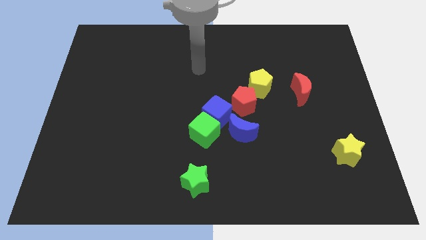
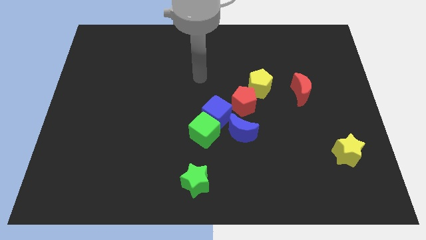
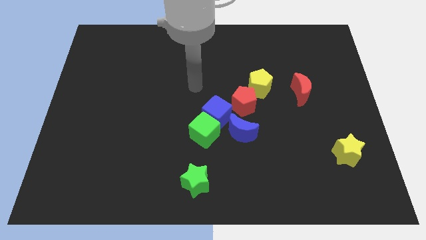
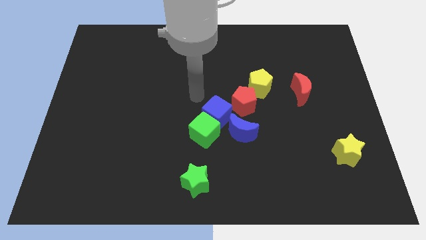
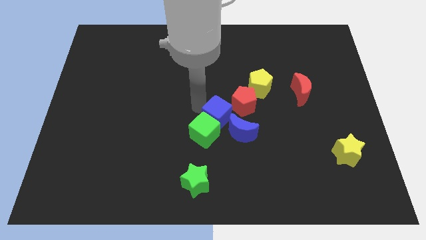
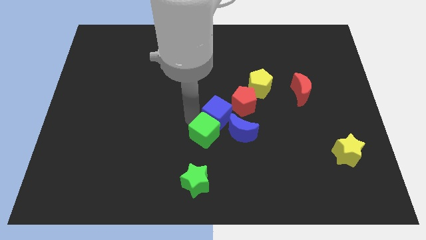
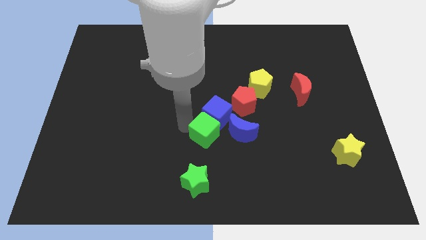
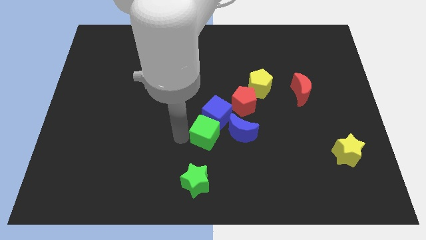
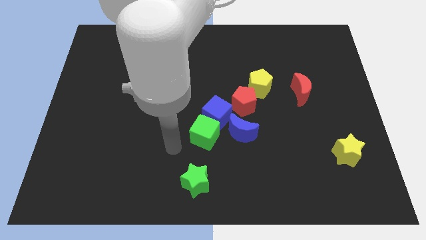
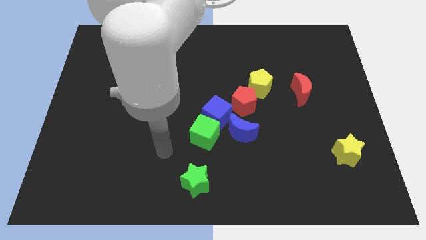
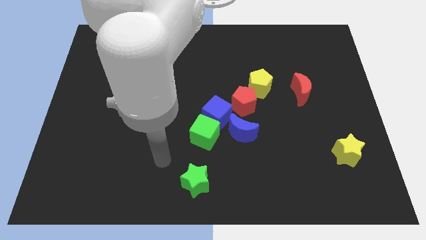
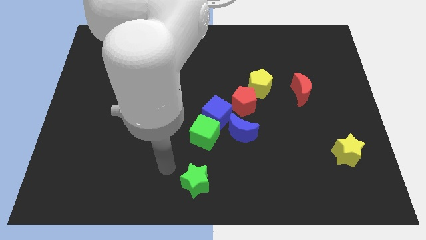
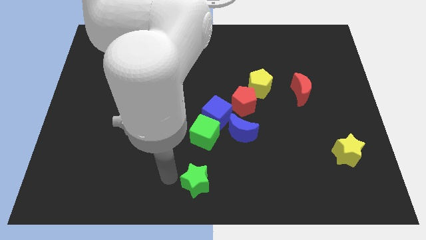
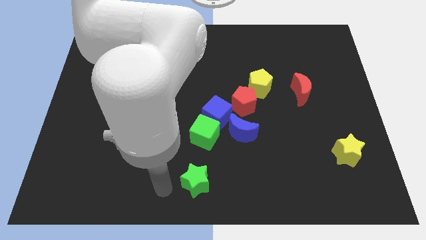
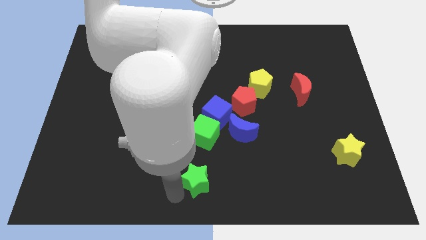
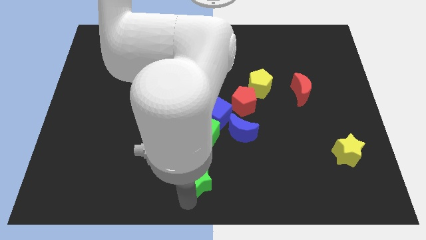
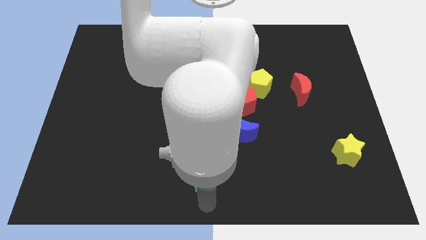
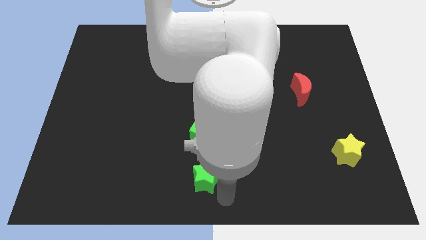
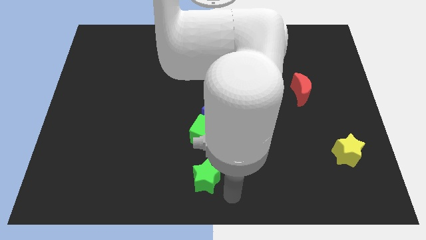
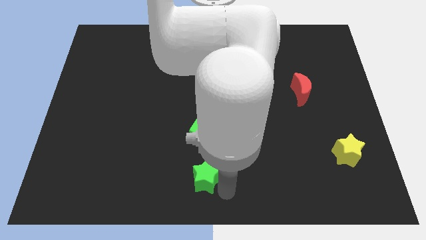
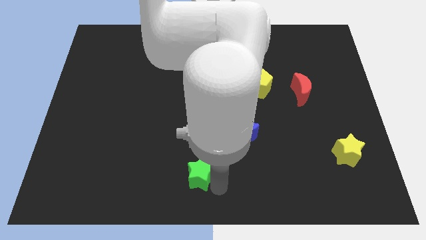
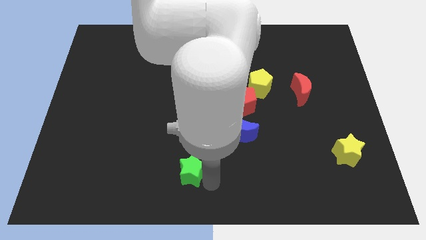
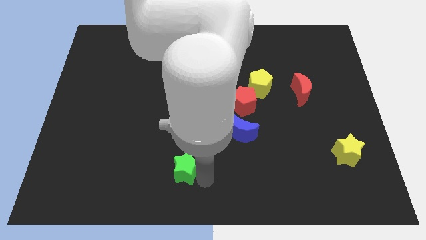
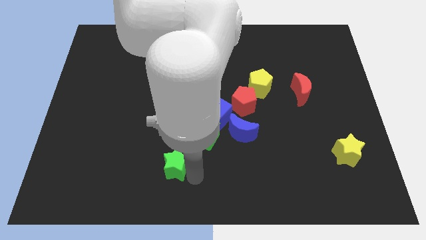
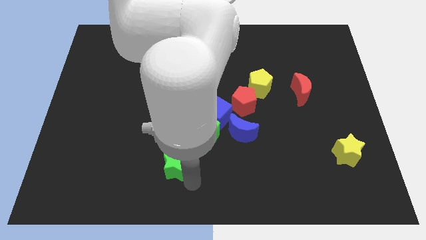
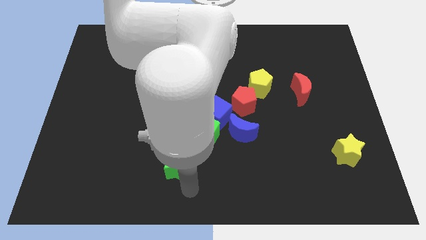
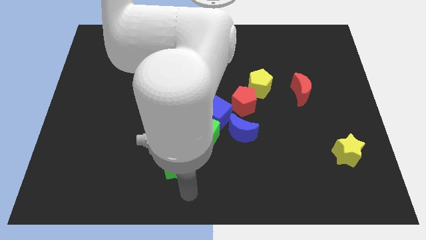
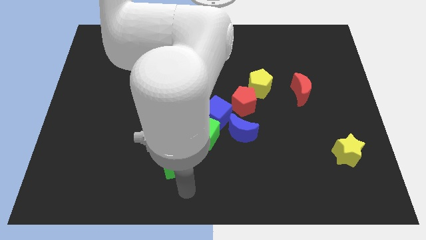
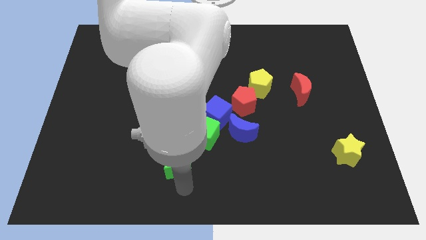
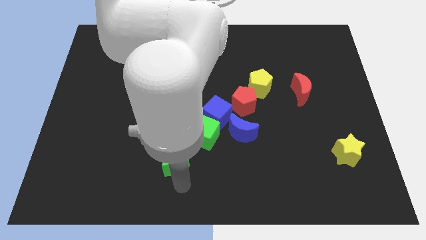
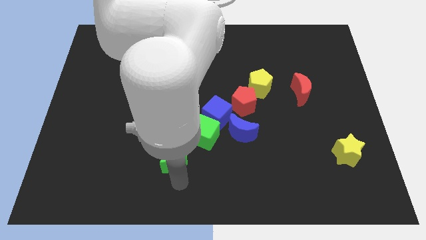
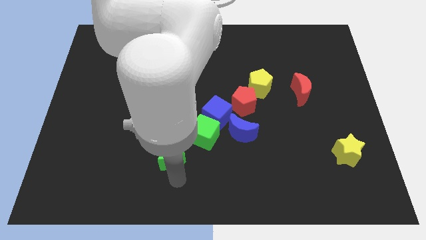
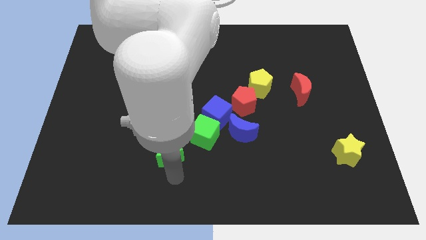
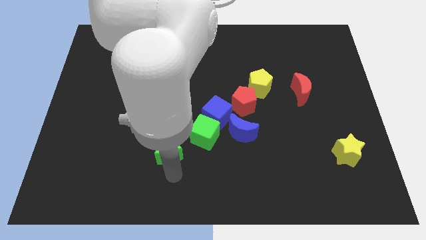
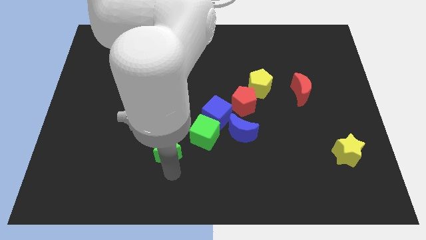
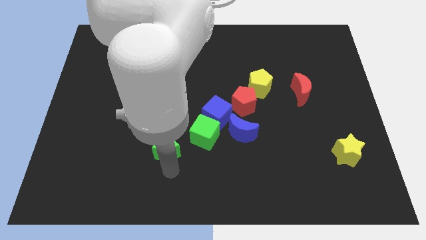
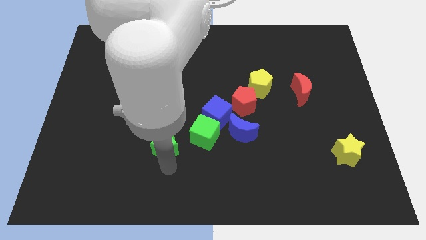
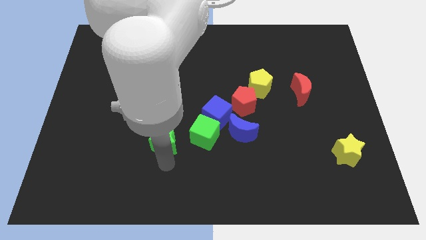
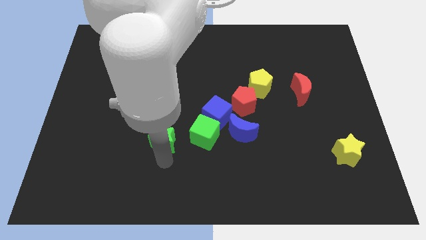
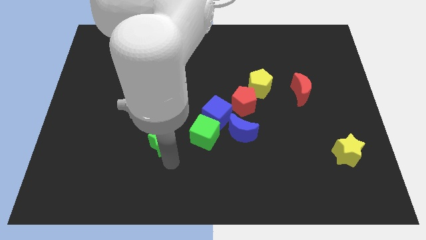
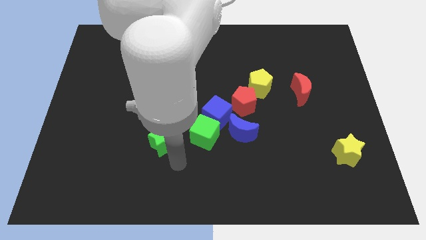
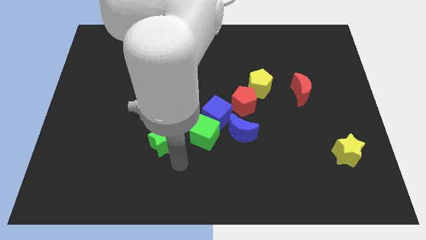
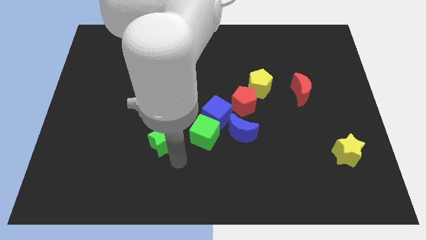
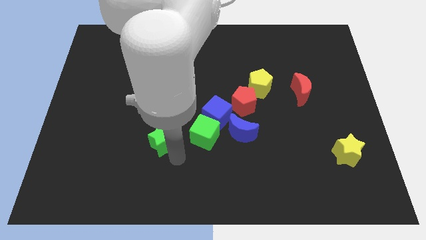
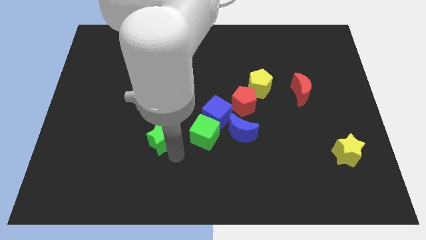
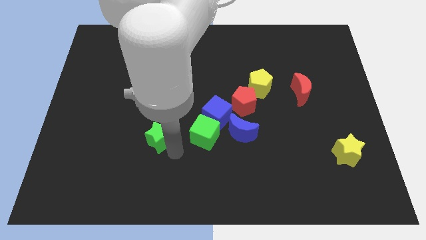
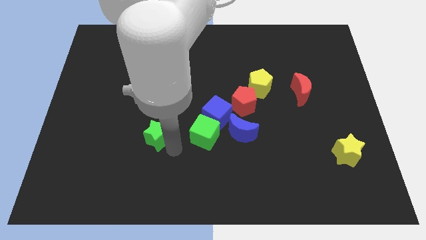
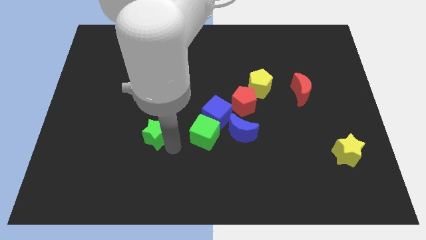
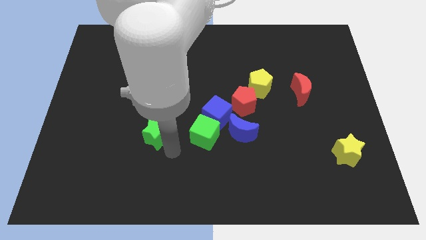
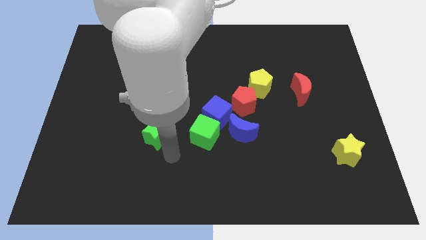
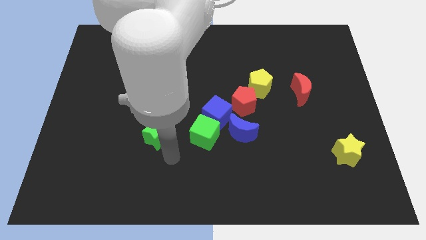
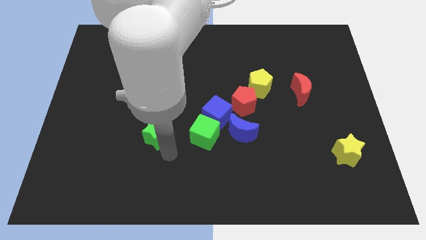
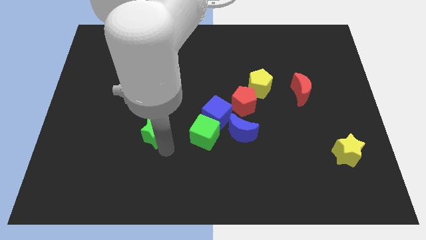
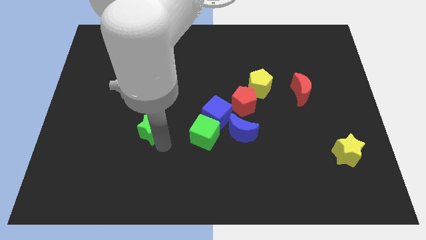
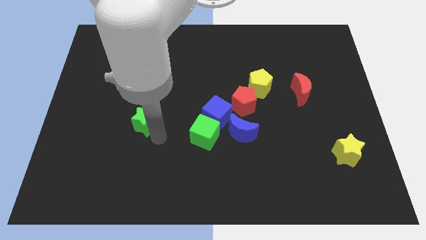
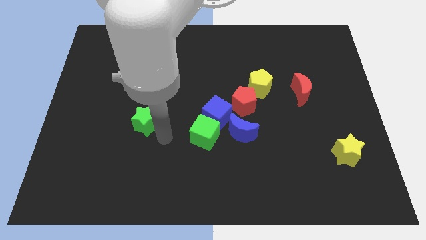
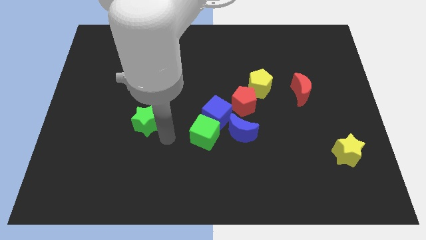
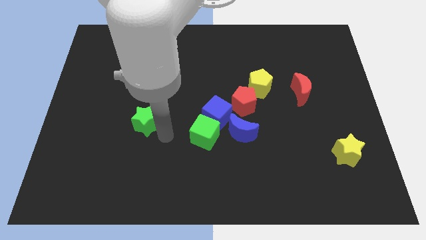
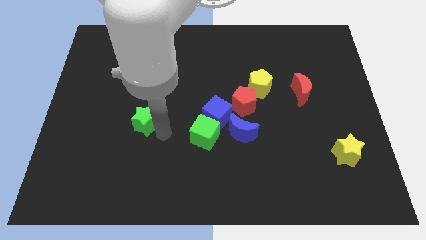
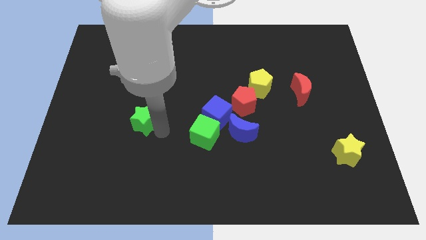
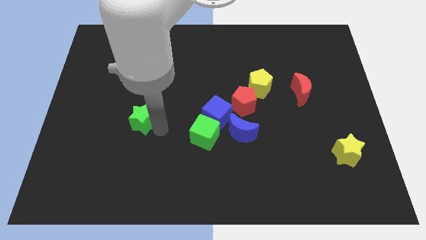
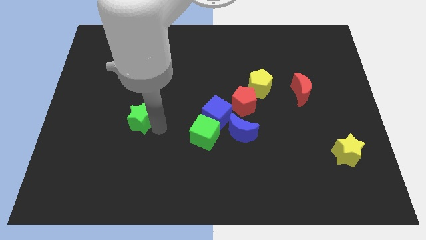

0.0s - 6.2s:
push the green star upwards and left diagonally

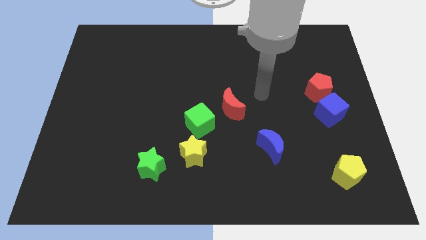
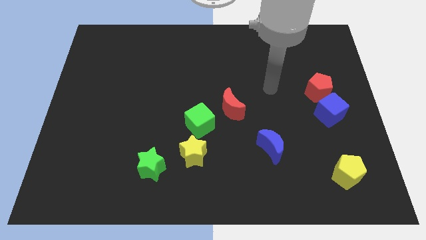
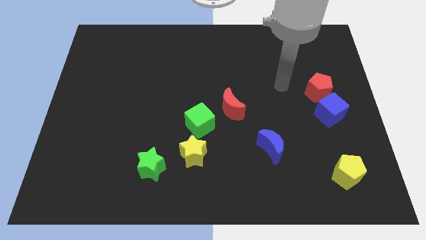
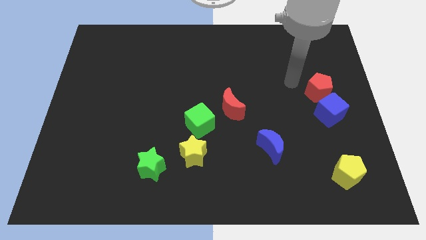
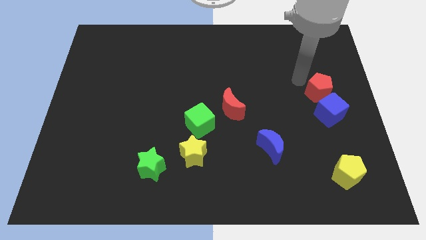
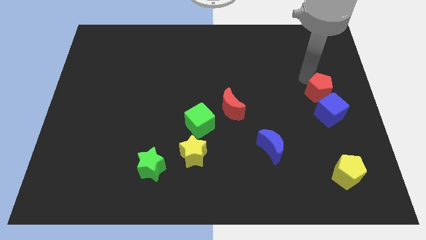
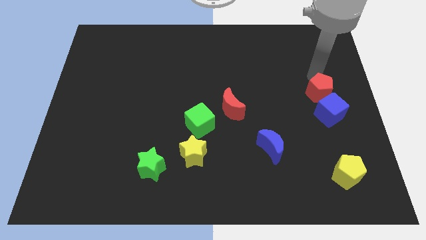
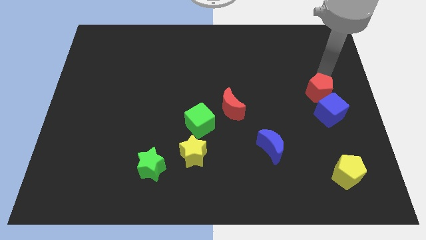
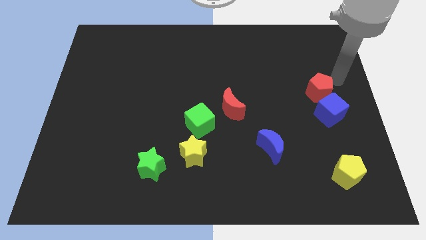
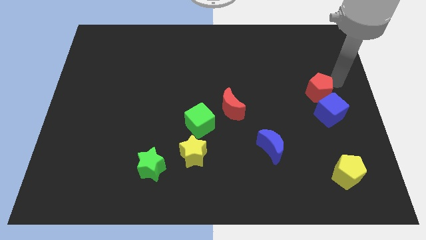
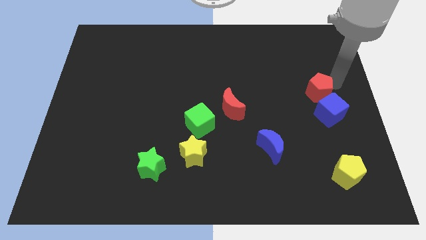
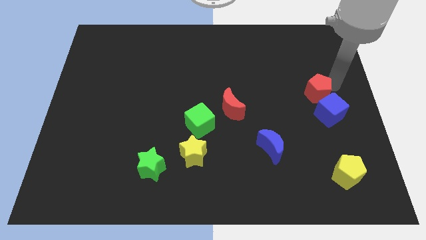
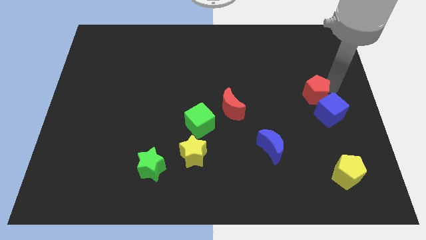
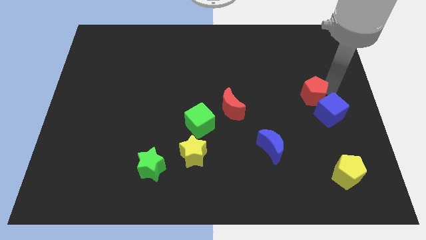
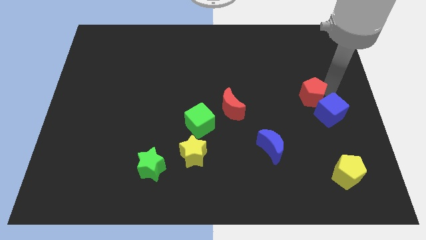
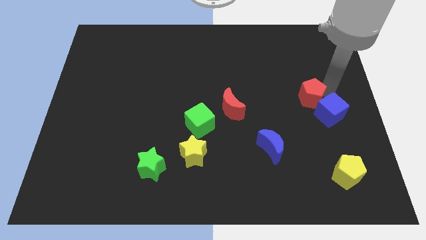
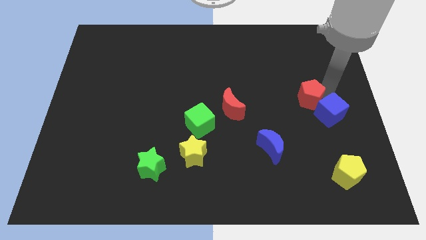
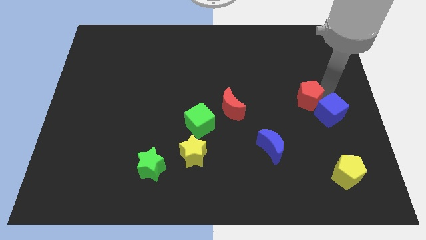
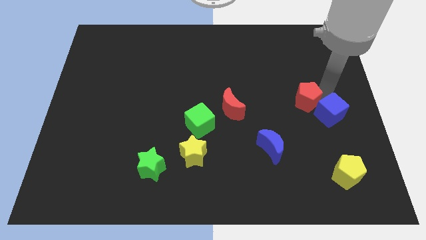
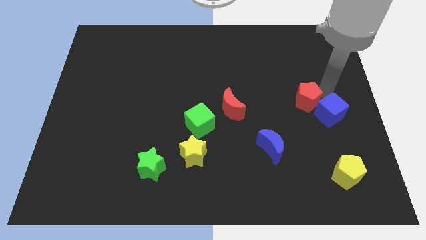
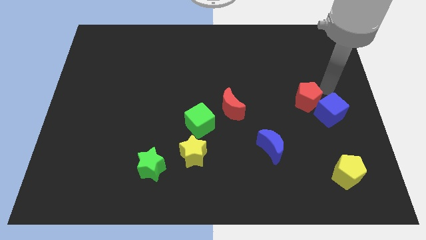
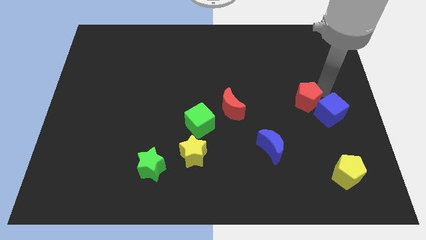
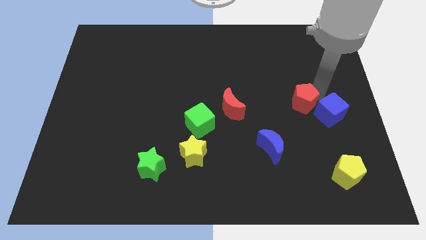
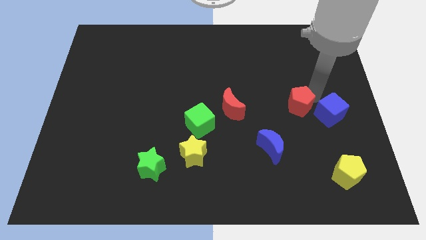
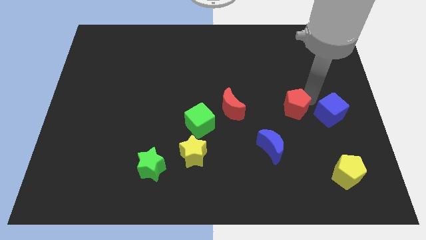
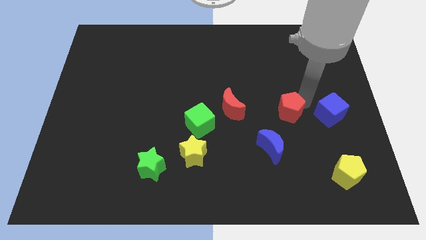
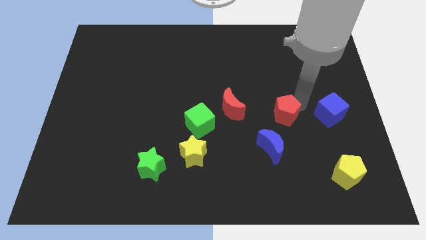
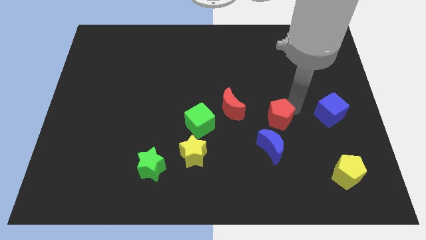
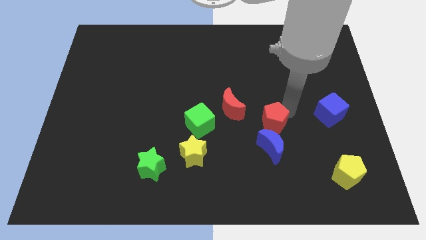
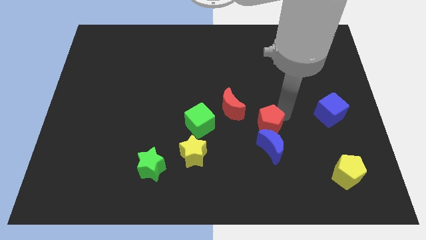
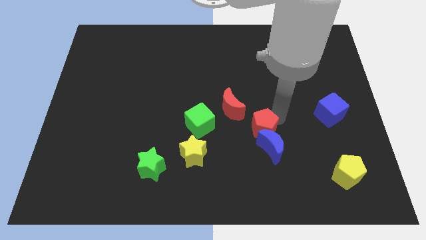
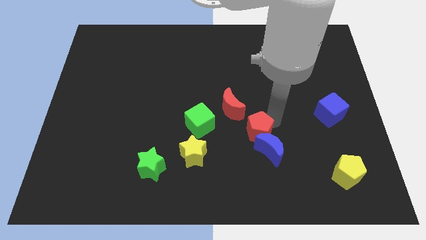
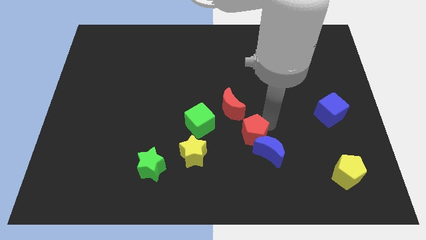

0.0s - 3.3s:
move the red pentagon diagonally downwards and left
